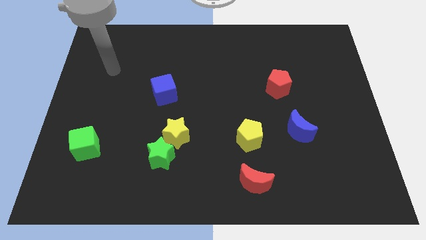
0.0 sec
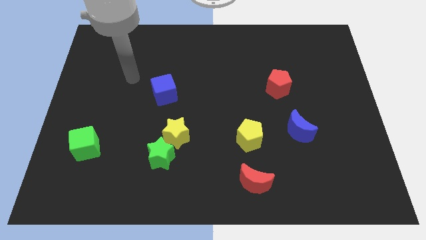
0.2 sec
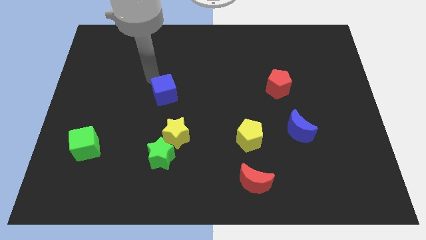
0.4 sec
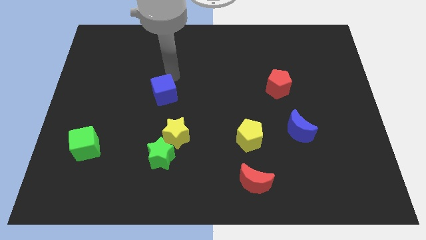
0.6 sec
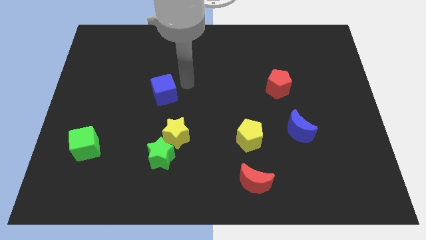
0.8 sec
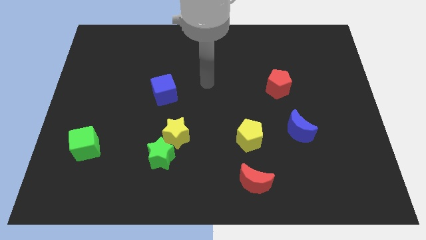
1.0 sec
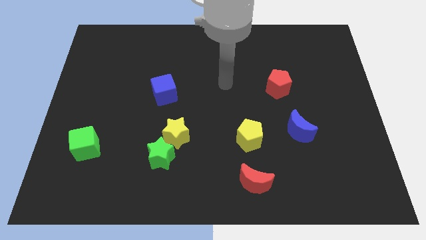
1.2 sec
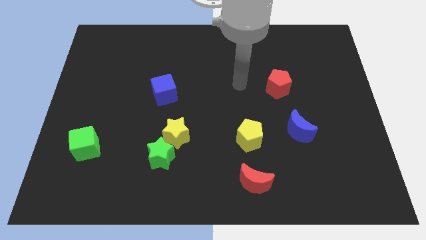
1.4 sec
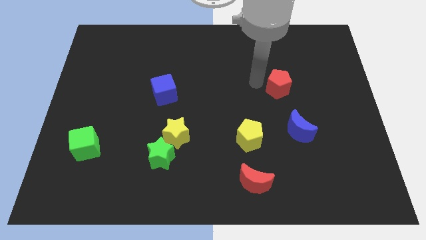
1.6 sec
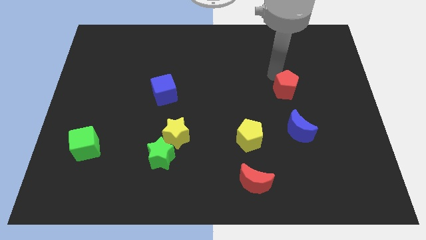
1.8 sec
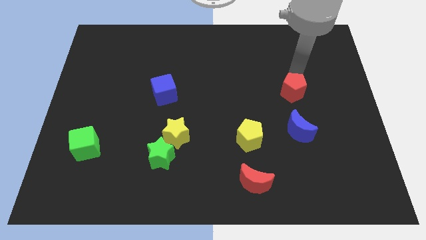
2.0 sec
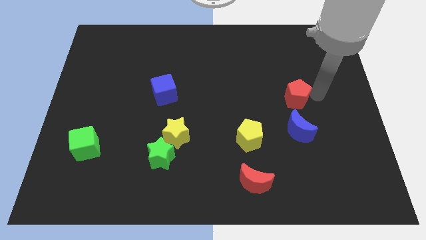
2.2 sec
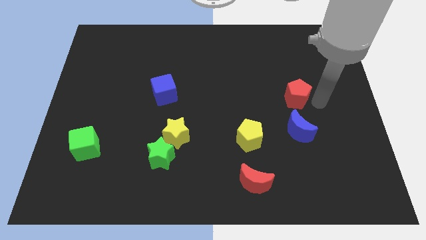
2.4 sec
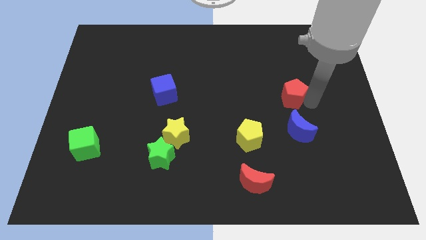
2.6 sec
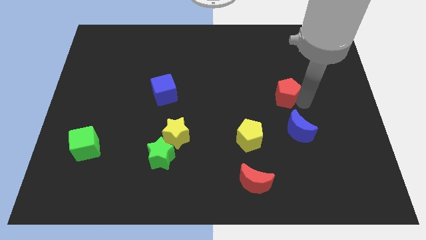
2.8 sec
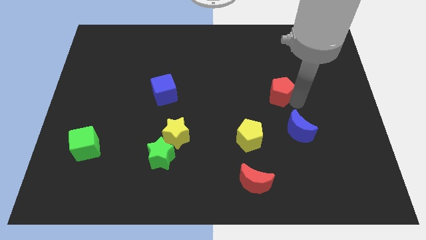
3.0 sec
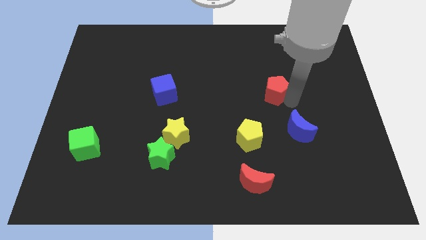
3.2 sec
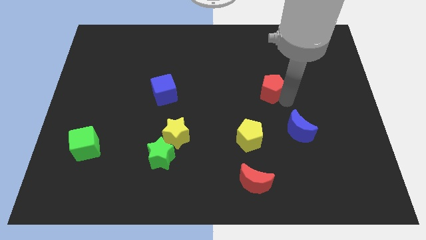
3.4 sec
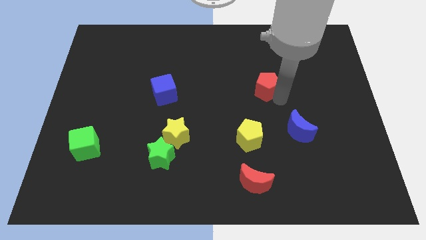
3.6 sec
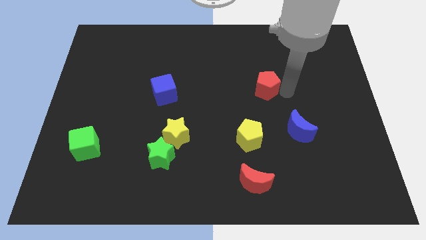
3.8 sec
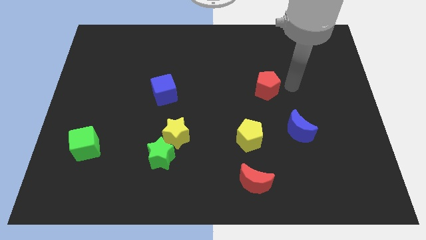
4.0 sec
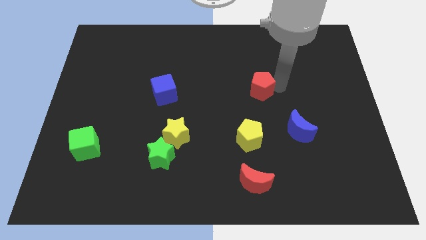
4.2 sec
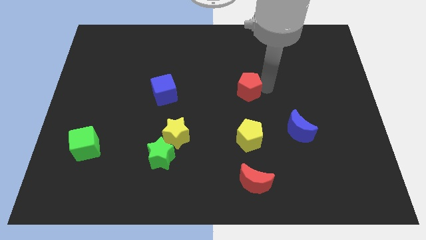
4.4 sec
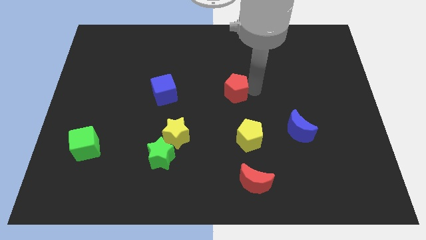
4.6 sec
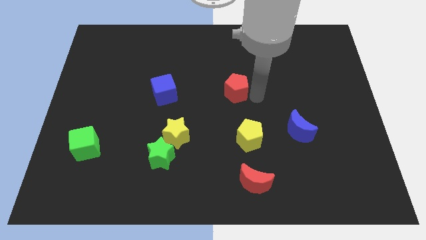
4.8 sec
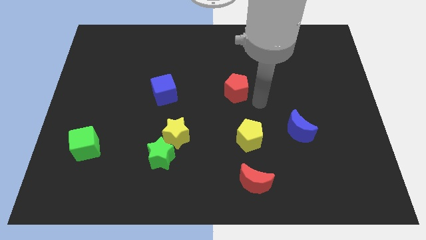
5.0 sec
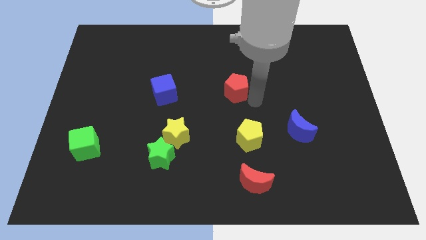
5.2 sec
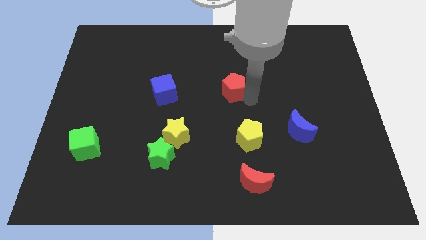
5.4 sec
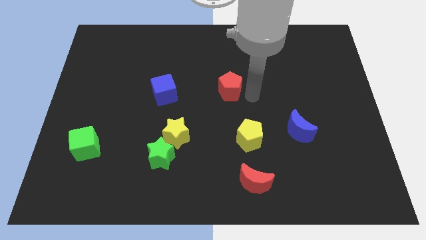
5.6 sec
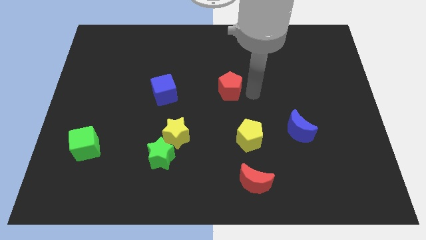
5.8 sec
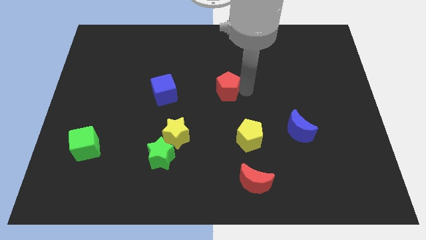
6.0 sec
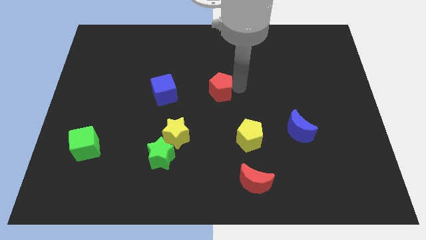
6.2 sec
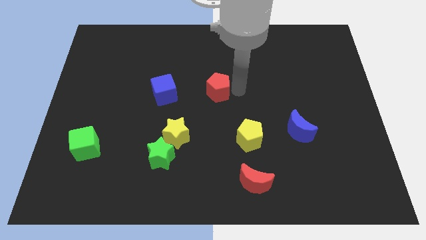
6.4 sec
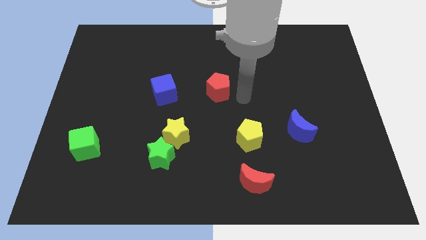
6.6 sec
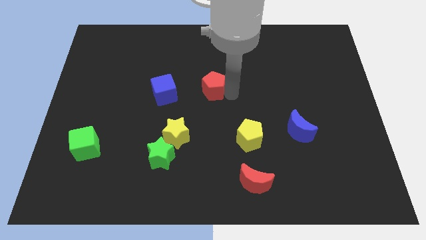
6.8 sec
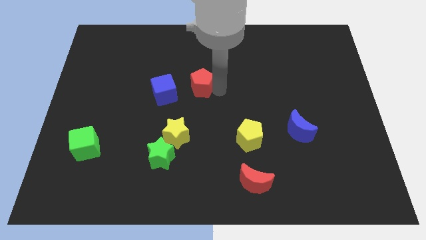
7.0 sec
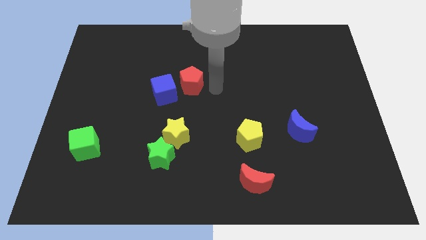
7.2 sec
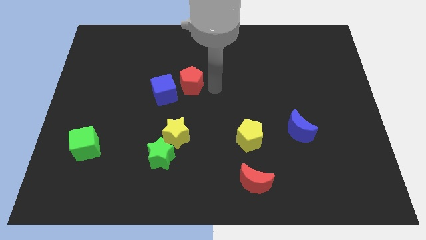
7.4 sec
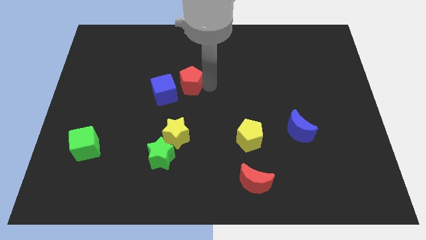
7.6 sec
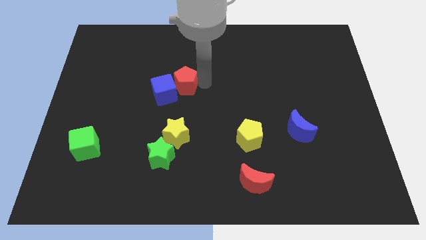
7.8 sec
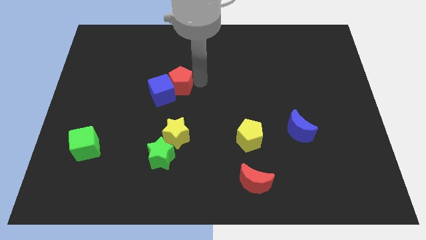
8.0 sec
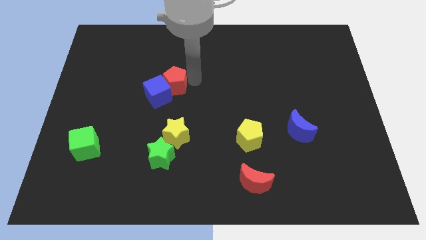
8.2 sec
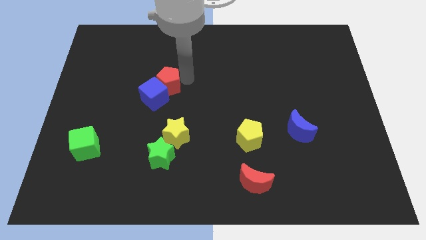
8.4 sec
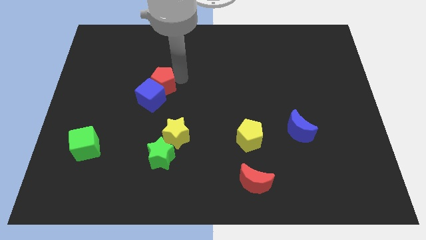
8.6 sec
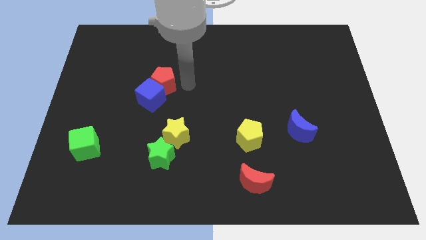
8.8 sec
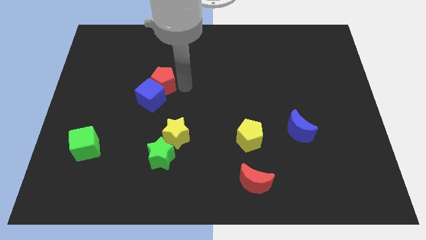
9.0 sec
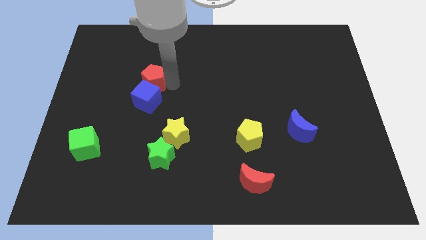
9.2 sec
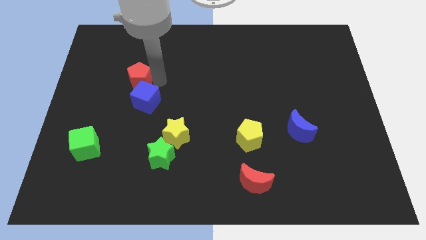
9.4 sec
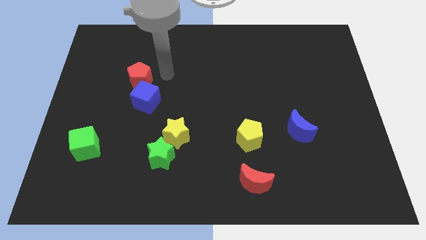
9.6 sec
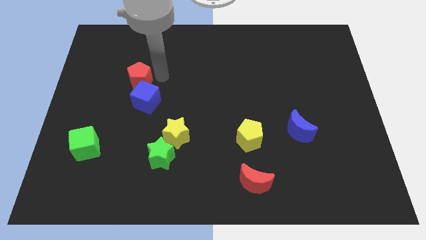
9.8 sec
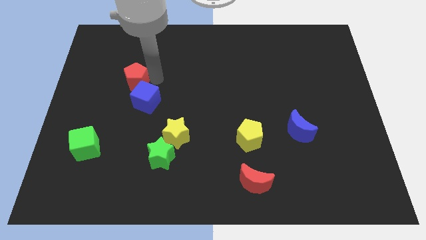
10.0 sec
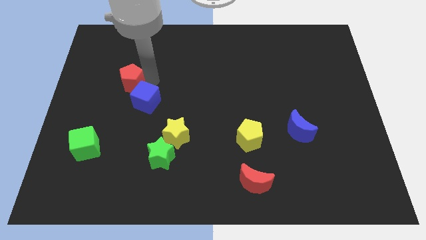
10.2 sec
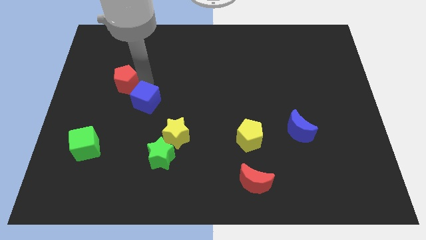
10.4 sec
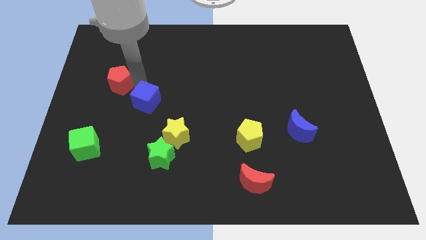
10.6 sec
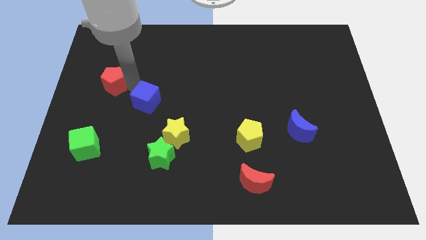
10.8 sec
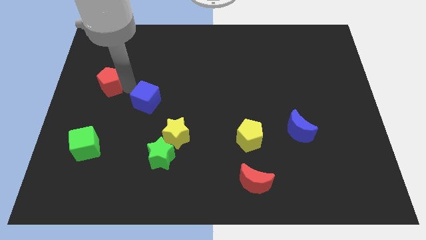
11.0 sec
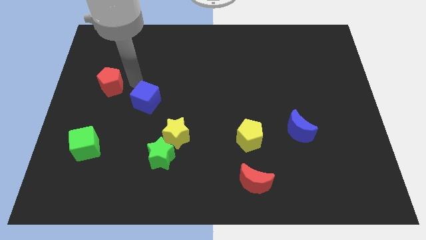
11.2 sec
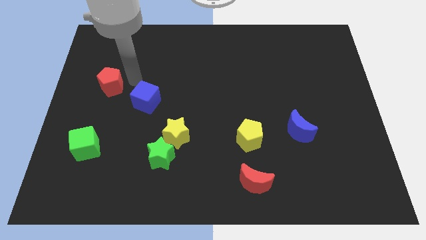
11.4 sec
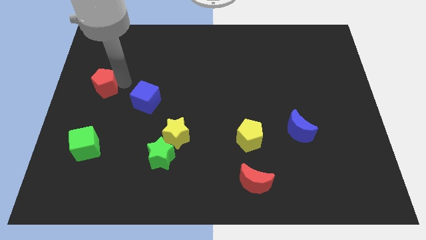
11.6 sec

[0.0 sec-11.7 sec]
push the red pentagon to the left side
